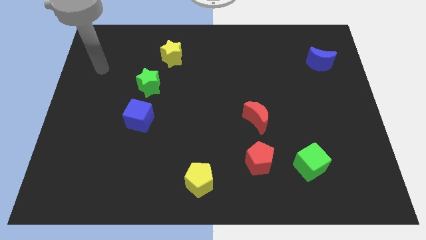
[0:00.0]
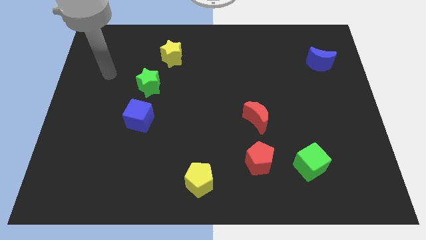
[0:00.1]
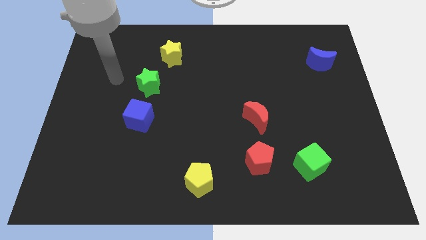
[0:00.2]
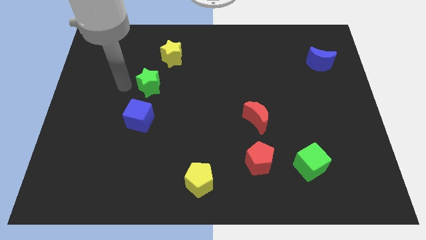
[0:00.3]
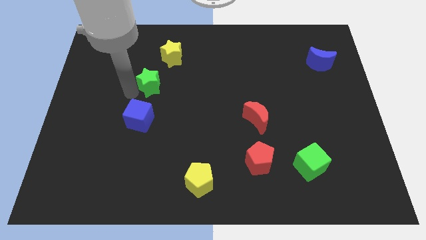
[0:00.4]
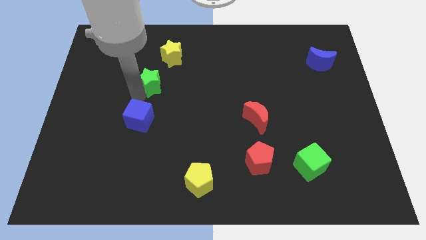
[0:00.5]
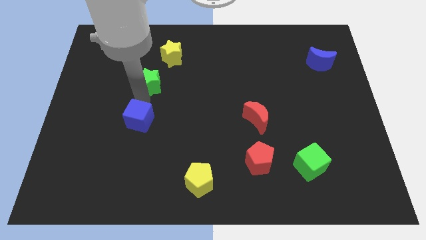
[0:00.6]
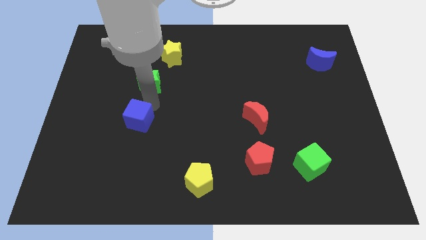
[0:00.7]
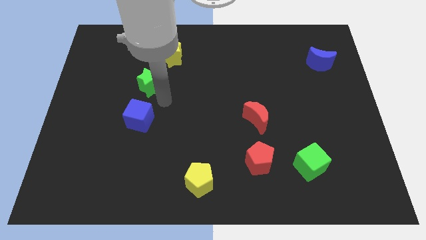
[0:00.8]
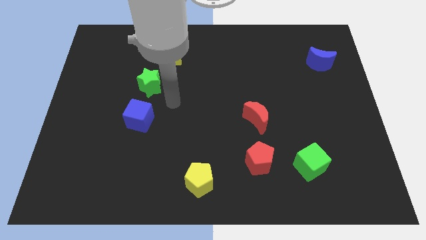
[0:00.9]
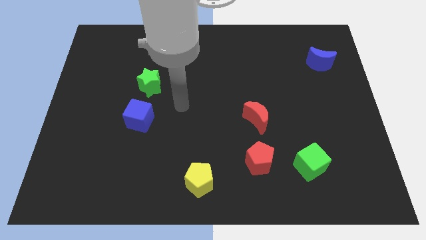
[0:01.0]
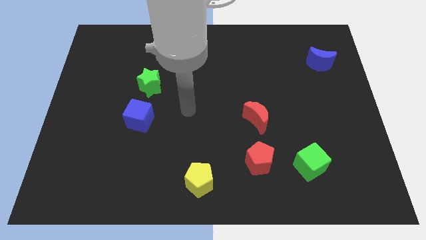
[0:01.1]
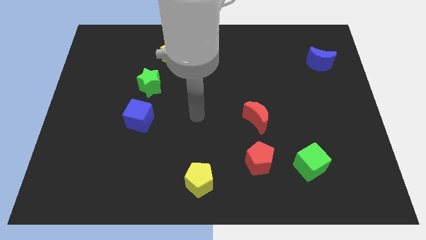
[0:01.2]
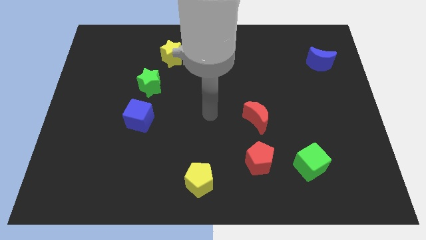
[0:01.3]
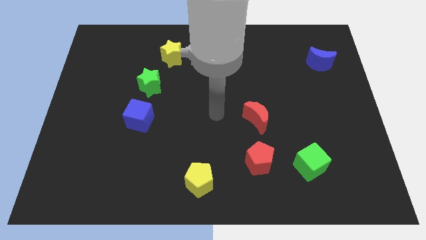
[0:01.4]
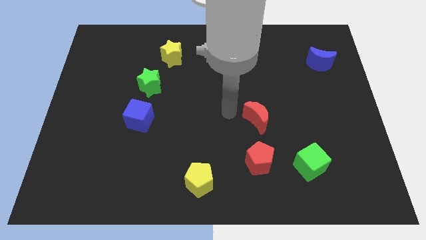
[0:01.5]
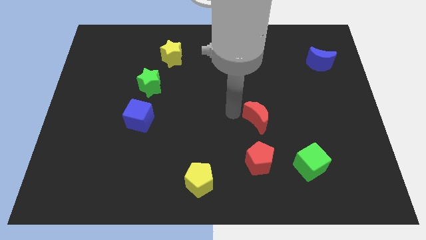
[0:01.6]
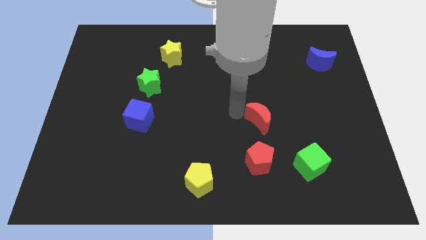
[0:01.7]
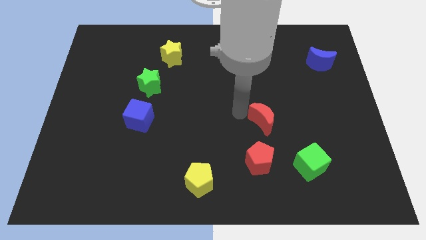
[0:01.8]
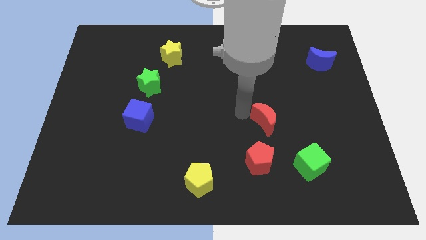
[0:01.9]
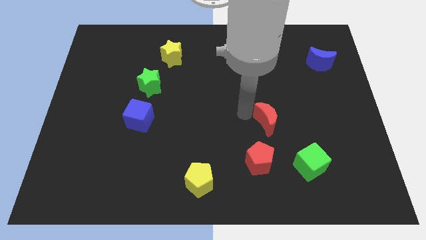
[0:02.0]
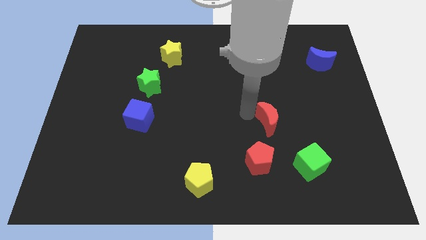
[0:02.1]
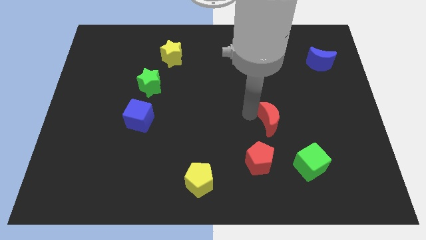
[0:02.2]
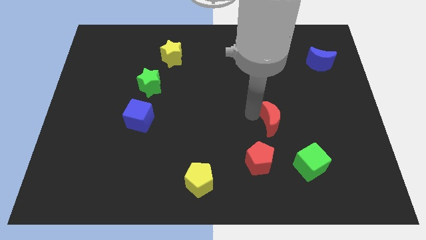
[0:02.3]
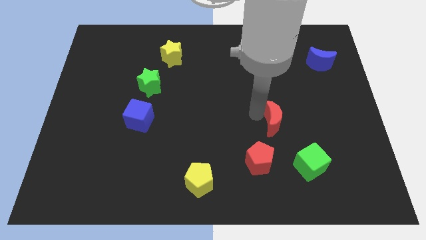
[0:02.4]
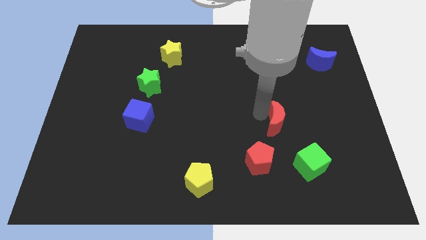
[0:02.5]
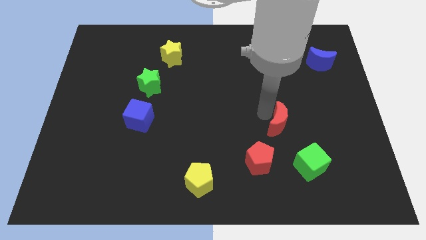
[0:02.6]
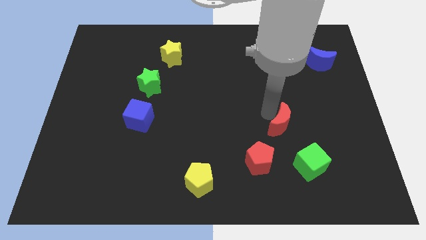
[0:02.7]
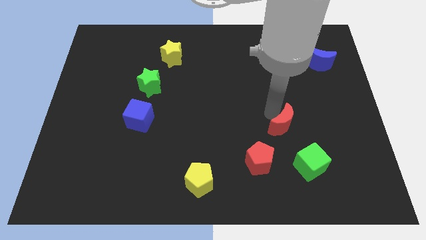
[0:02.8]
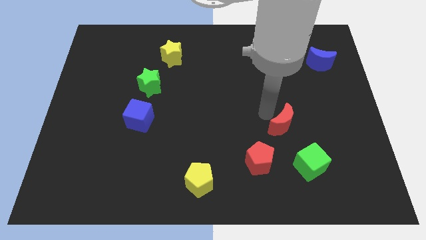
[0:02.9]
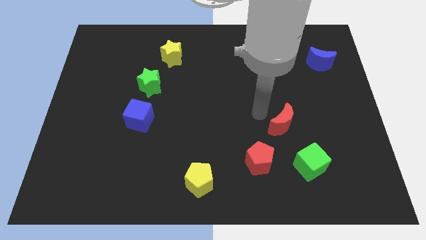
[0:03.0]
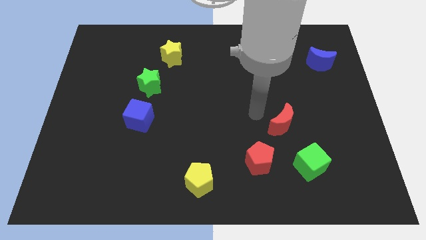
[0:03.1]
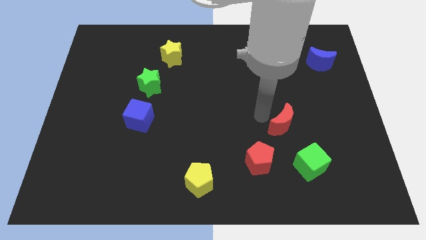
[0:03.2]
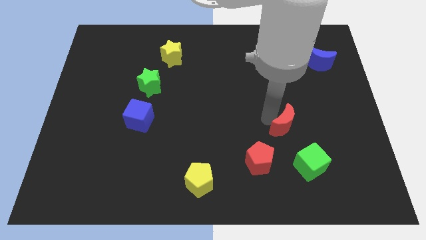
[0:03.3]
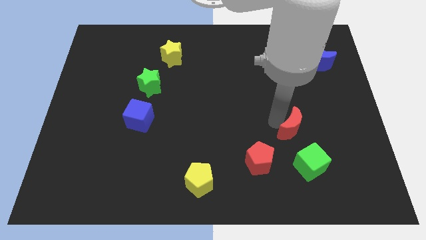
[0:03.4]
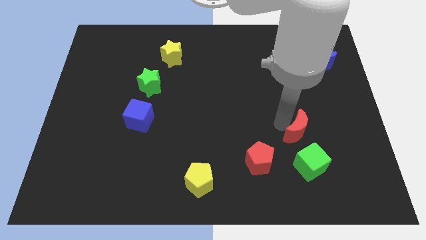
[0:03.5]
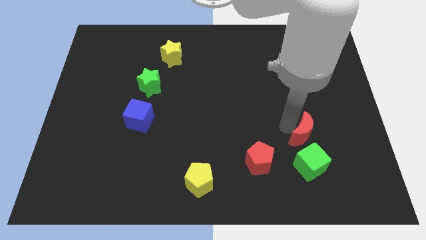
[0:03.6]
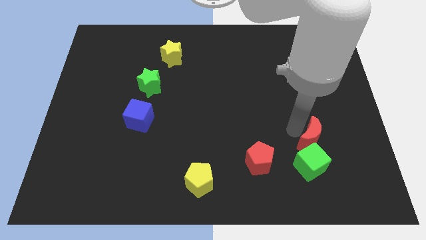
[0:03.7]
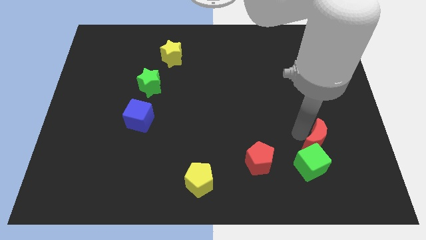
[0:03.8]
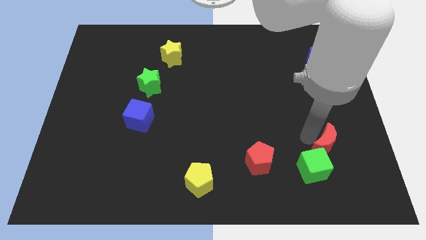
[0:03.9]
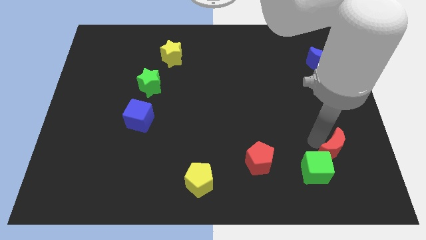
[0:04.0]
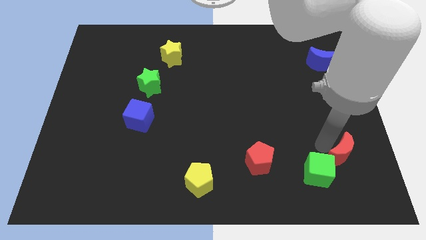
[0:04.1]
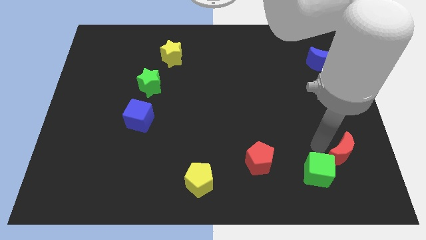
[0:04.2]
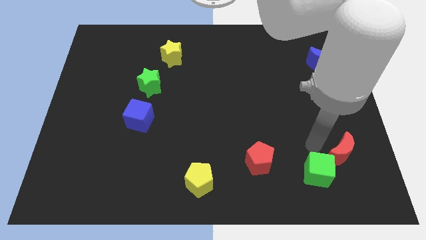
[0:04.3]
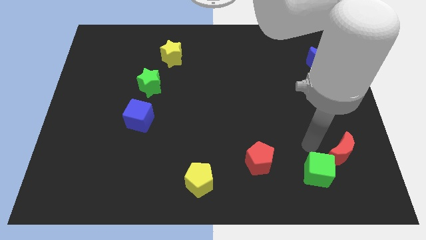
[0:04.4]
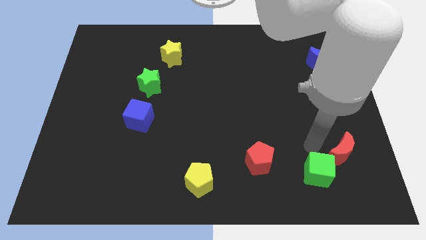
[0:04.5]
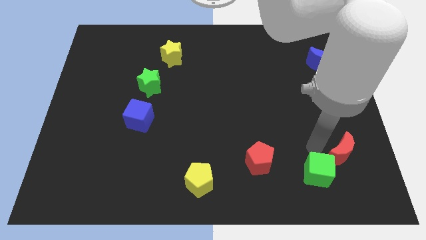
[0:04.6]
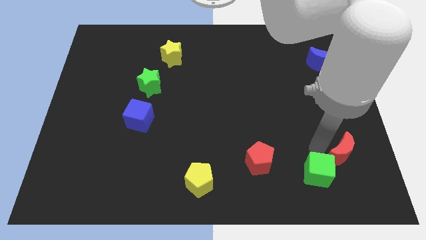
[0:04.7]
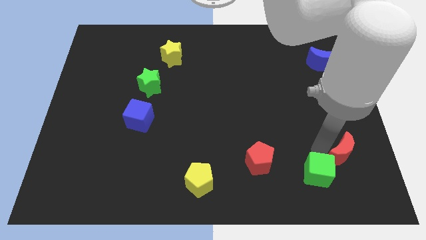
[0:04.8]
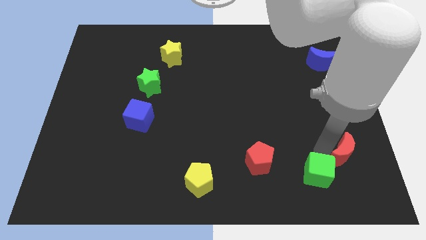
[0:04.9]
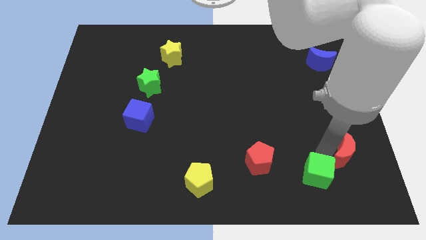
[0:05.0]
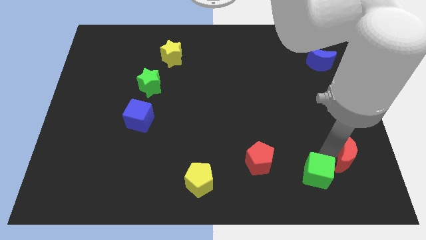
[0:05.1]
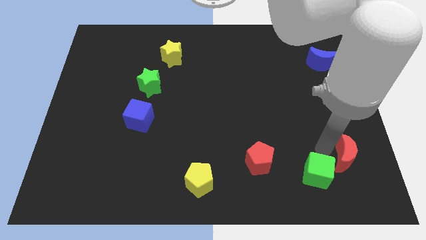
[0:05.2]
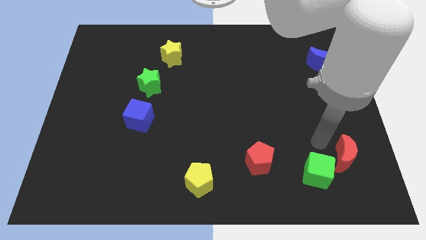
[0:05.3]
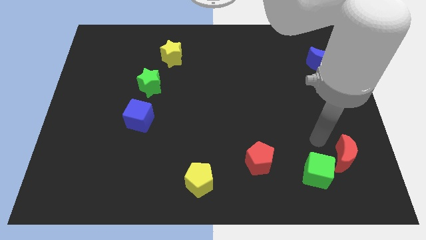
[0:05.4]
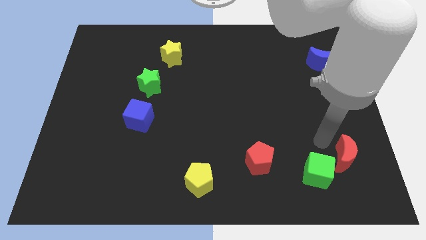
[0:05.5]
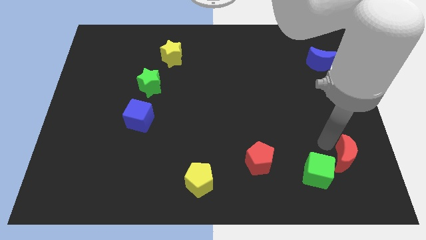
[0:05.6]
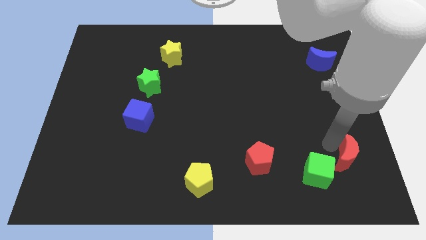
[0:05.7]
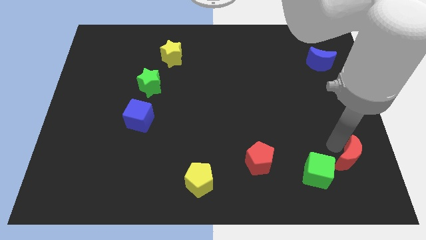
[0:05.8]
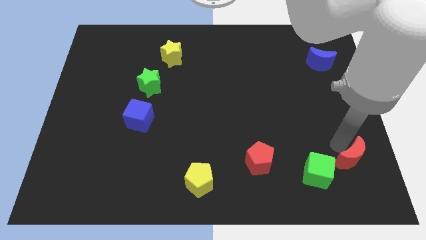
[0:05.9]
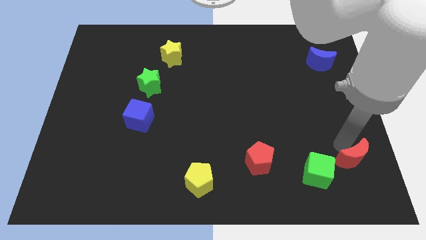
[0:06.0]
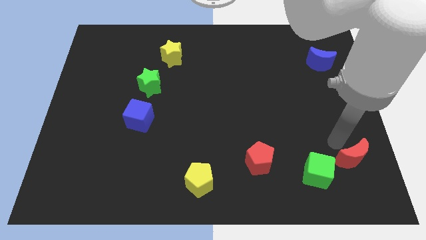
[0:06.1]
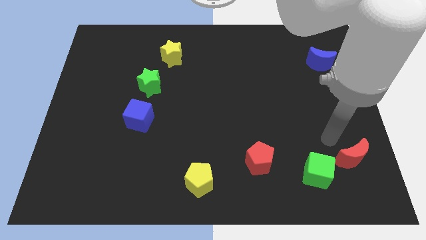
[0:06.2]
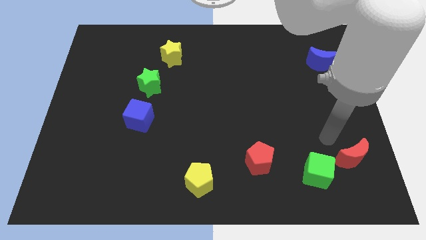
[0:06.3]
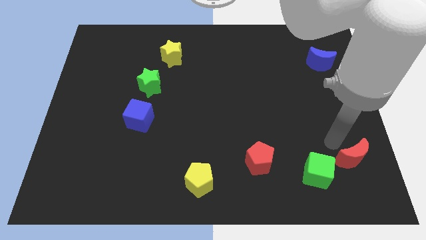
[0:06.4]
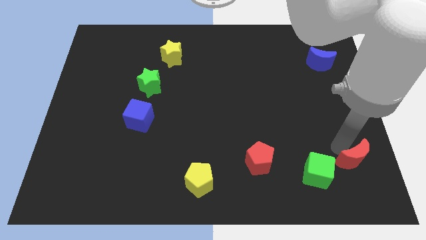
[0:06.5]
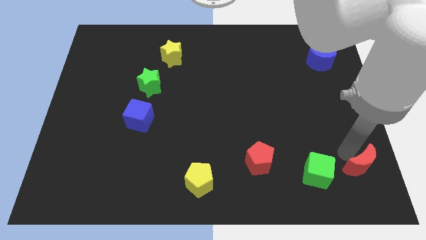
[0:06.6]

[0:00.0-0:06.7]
push the red moon to the bottom right corner
